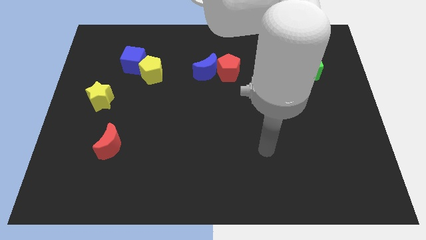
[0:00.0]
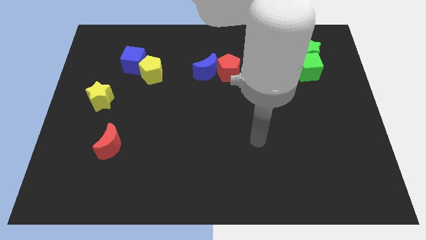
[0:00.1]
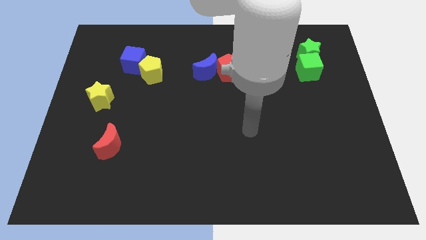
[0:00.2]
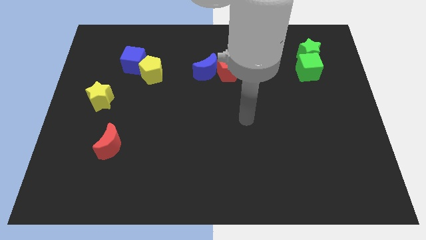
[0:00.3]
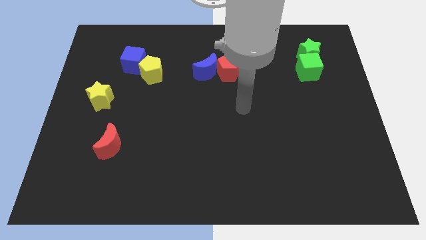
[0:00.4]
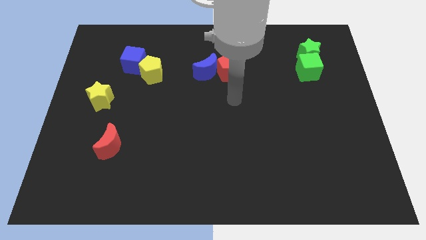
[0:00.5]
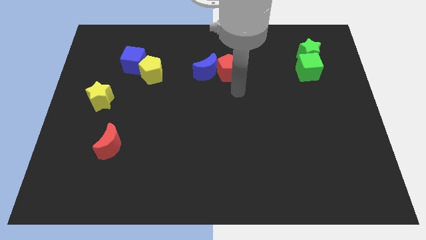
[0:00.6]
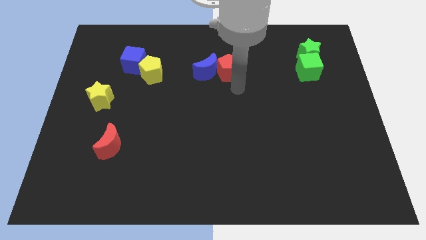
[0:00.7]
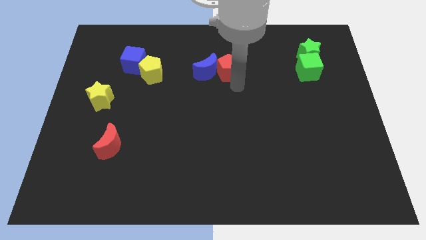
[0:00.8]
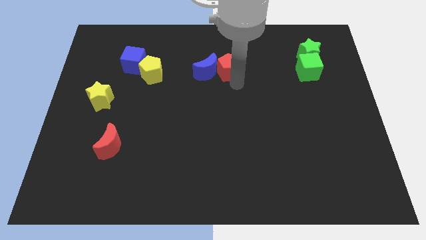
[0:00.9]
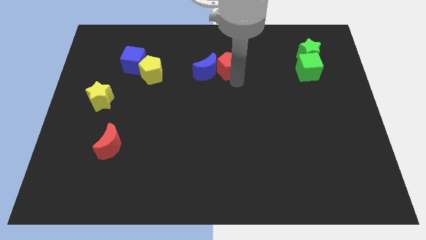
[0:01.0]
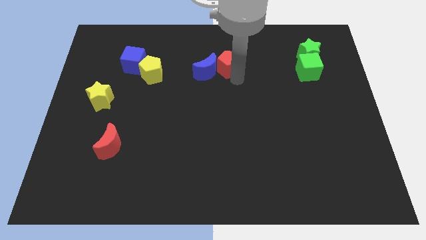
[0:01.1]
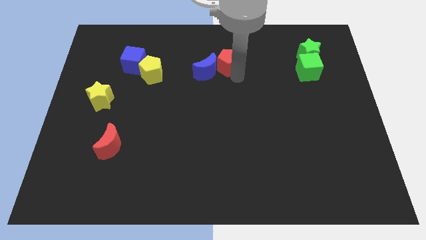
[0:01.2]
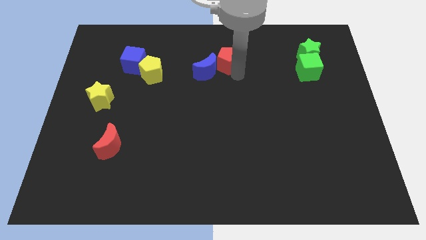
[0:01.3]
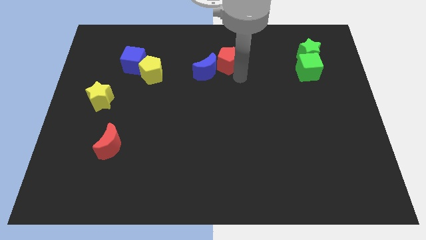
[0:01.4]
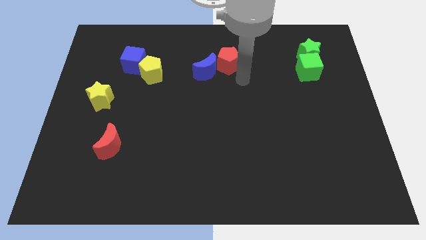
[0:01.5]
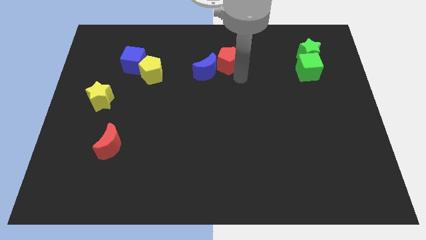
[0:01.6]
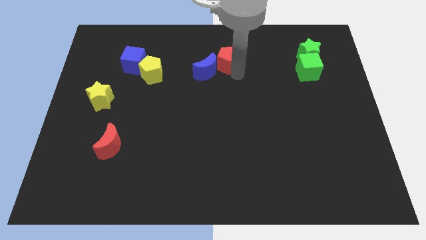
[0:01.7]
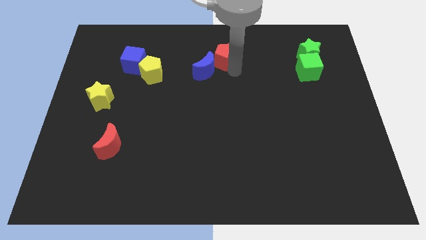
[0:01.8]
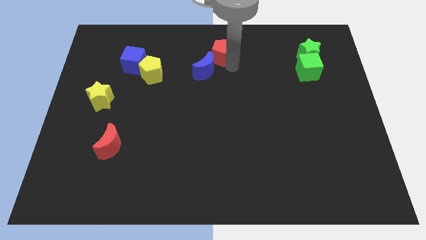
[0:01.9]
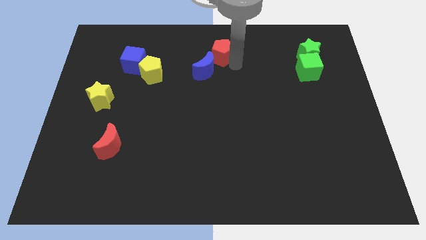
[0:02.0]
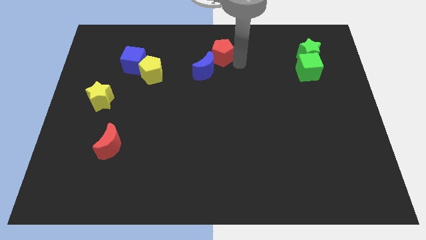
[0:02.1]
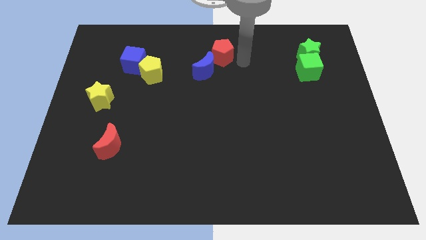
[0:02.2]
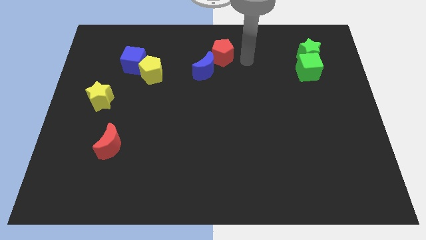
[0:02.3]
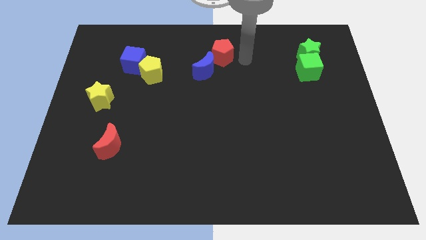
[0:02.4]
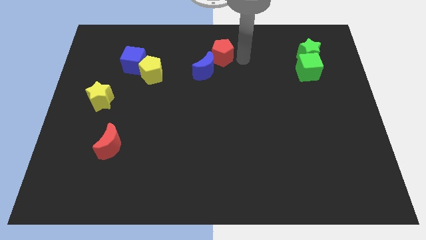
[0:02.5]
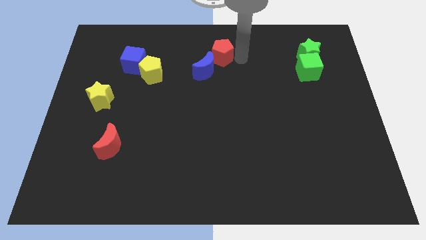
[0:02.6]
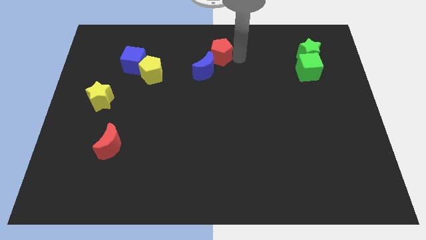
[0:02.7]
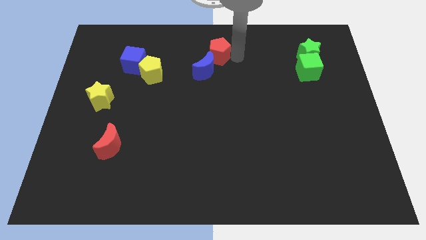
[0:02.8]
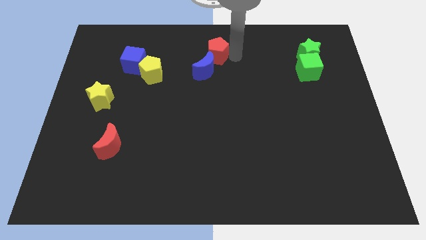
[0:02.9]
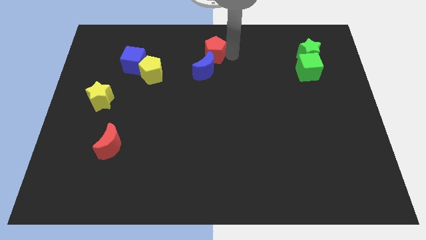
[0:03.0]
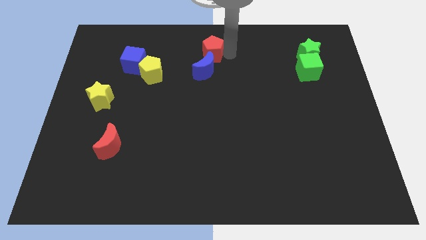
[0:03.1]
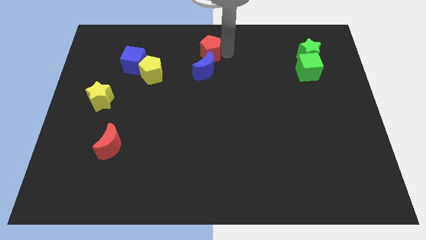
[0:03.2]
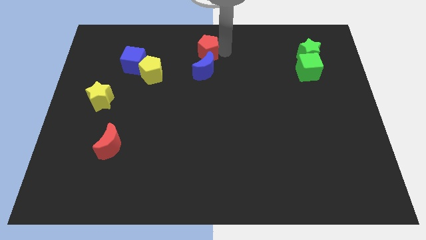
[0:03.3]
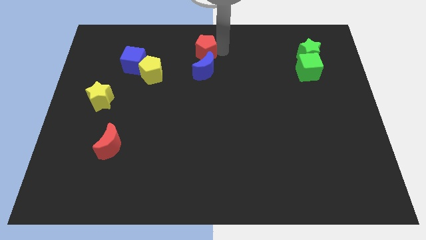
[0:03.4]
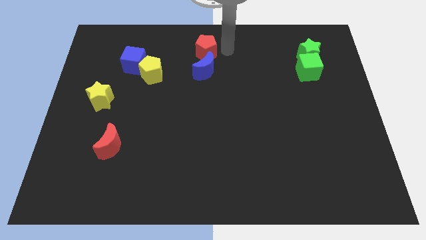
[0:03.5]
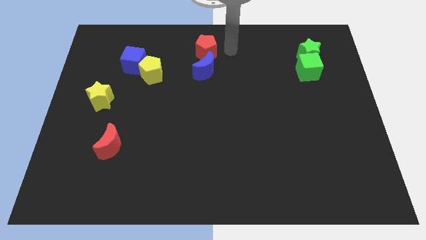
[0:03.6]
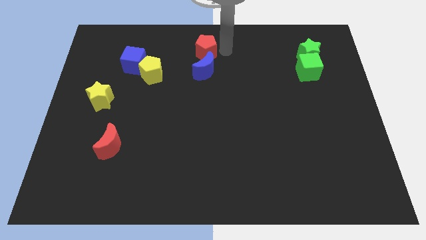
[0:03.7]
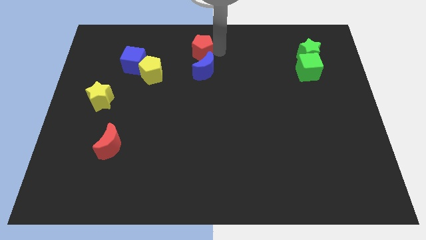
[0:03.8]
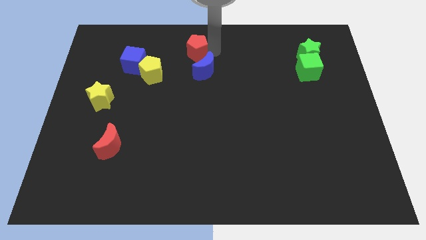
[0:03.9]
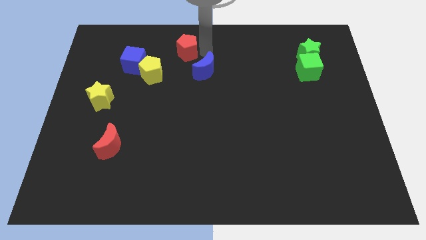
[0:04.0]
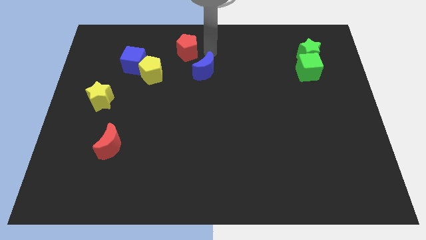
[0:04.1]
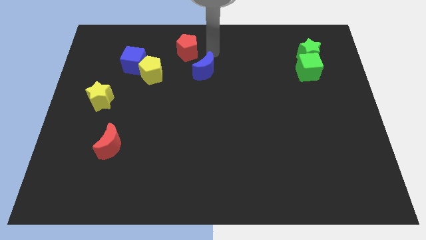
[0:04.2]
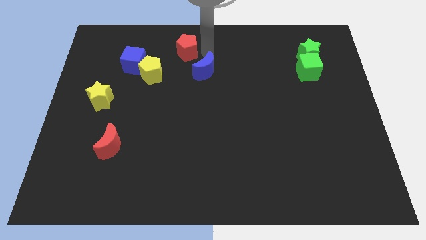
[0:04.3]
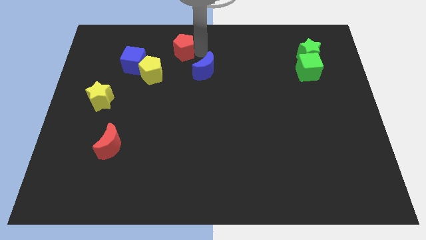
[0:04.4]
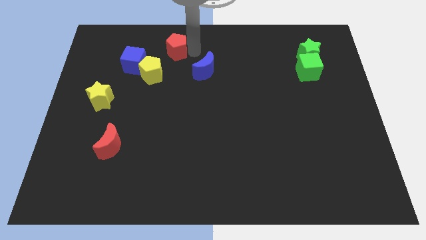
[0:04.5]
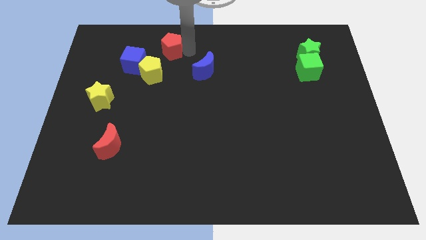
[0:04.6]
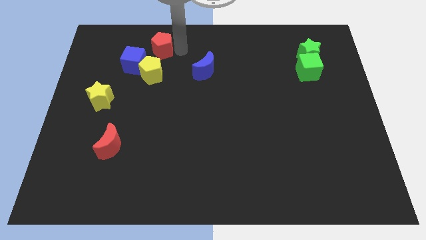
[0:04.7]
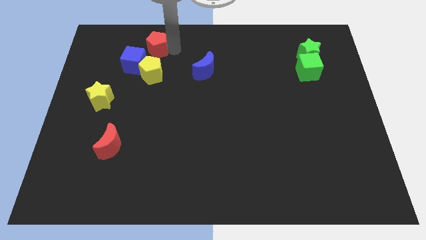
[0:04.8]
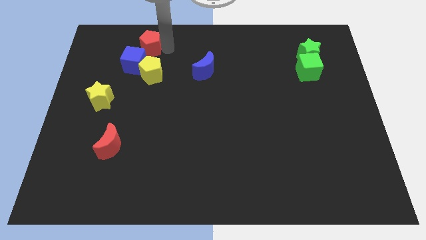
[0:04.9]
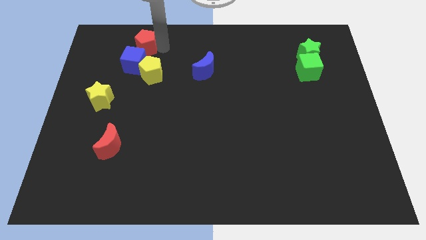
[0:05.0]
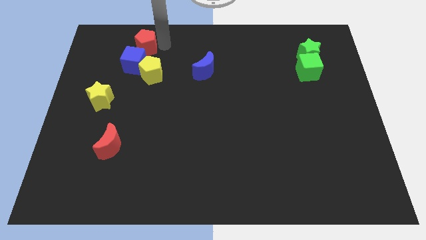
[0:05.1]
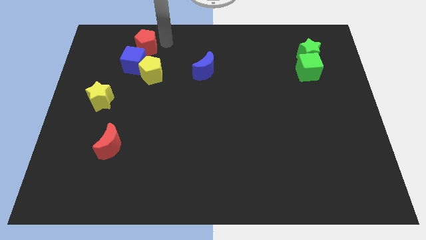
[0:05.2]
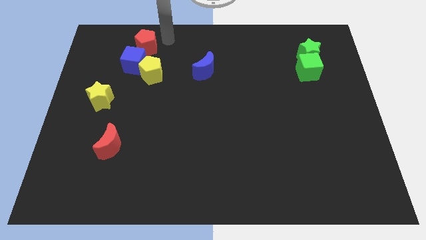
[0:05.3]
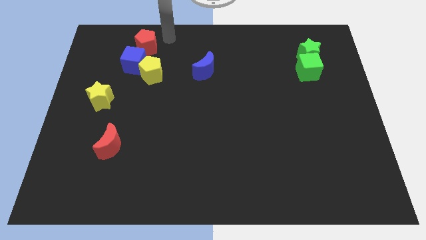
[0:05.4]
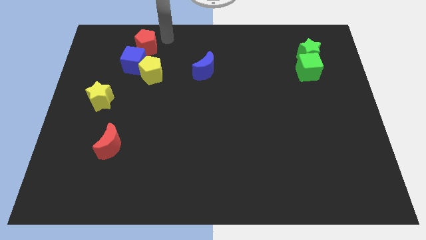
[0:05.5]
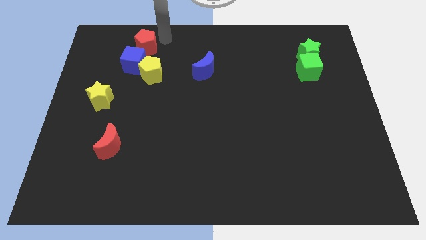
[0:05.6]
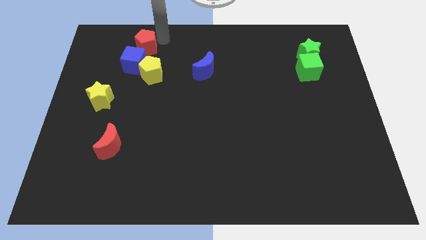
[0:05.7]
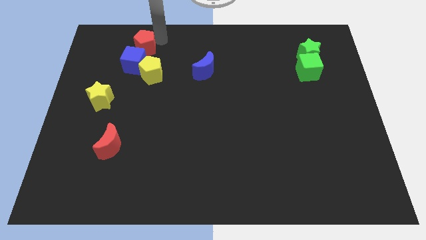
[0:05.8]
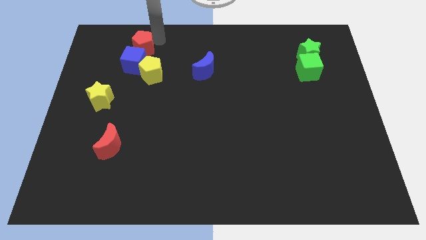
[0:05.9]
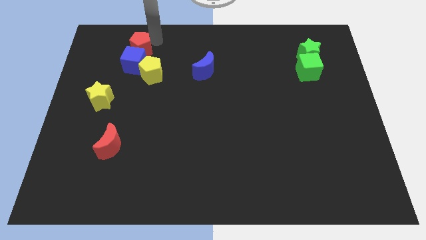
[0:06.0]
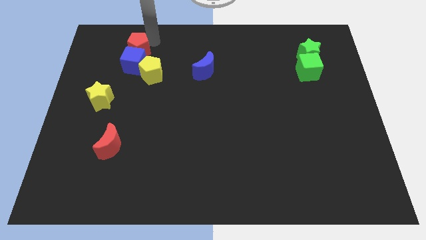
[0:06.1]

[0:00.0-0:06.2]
push the red pentagon left

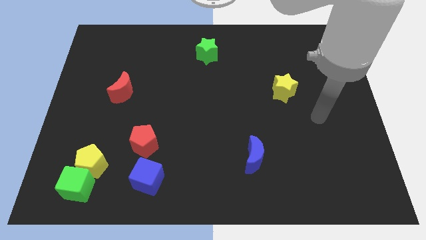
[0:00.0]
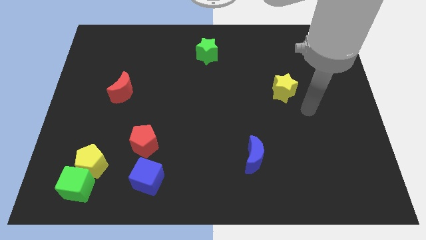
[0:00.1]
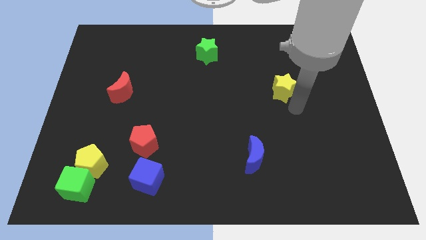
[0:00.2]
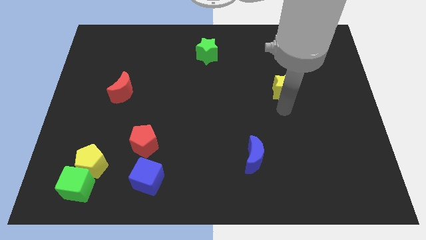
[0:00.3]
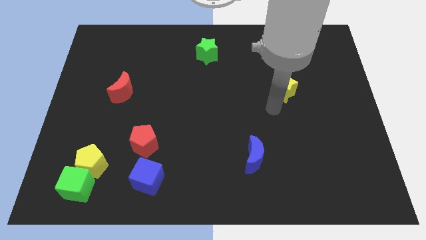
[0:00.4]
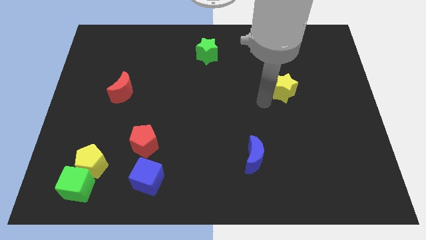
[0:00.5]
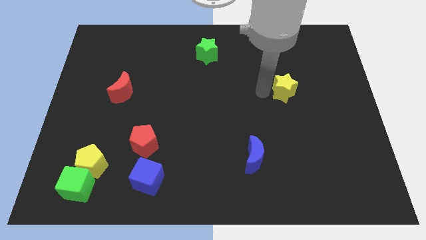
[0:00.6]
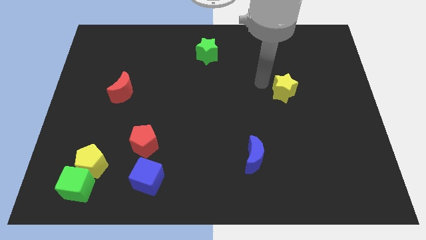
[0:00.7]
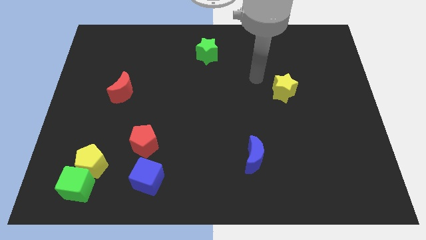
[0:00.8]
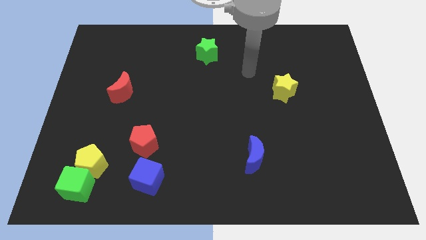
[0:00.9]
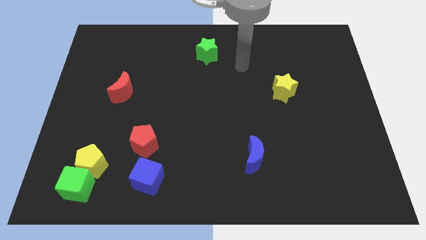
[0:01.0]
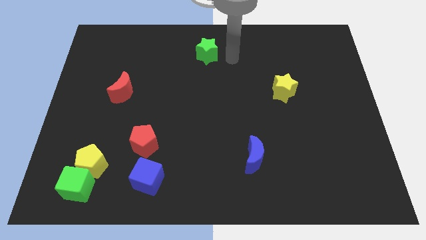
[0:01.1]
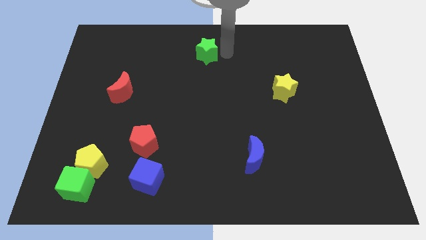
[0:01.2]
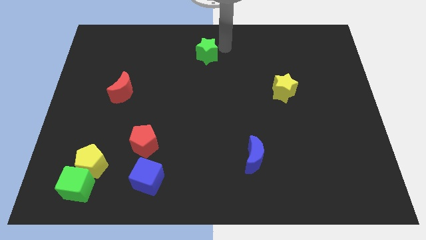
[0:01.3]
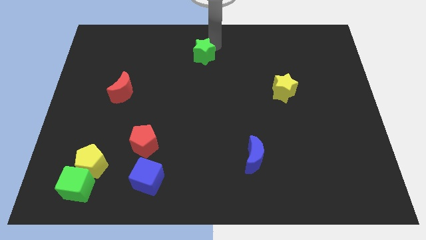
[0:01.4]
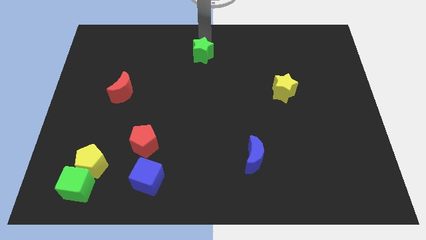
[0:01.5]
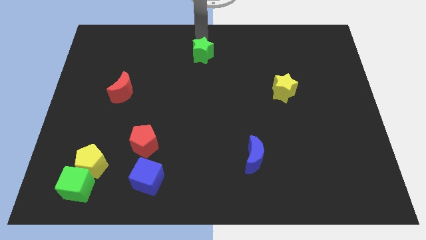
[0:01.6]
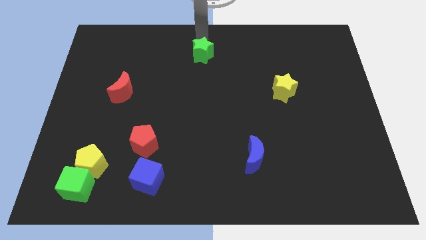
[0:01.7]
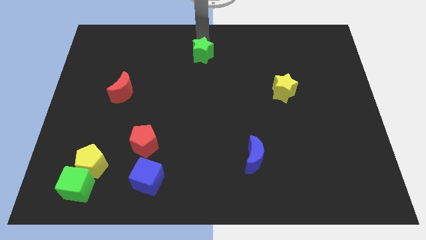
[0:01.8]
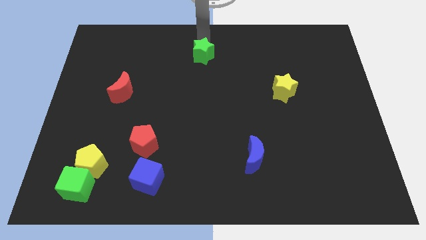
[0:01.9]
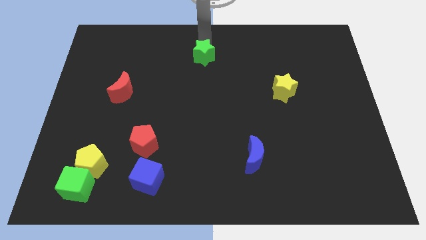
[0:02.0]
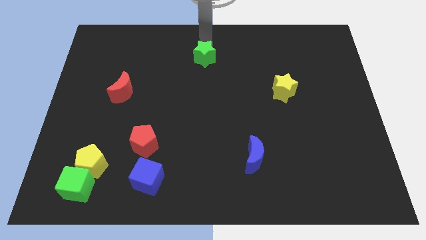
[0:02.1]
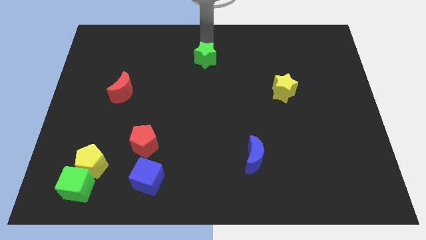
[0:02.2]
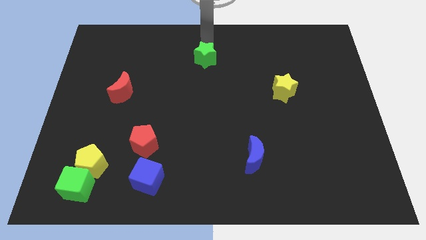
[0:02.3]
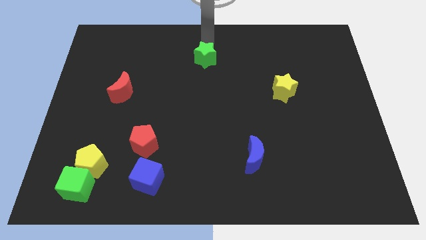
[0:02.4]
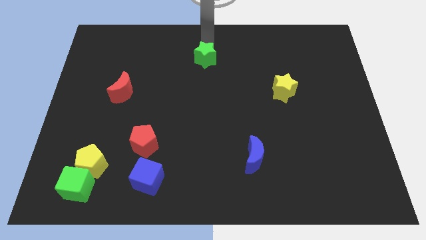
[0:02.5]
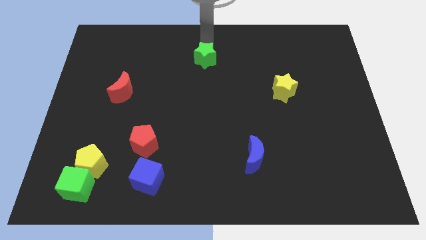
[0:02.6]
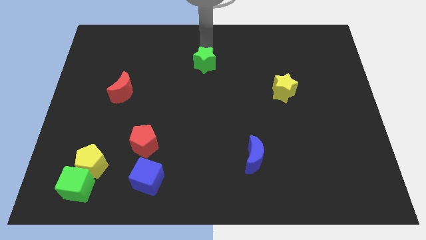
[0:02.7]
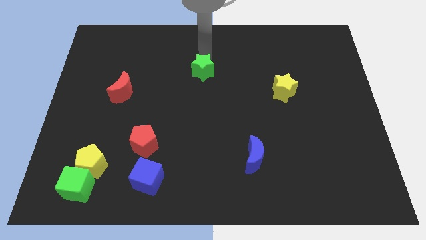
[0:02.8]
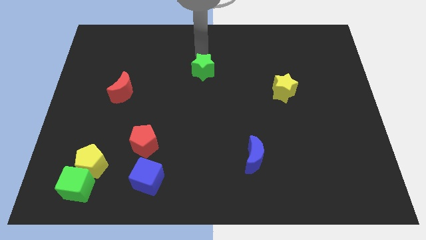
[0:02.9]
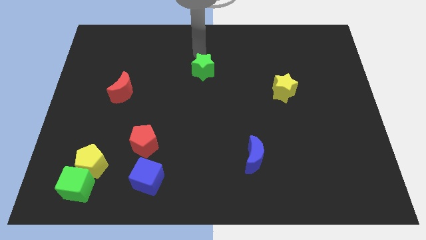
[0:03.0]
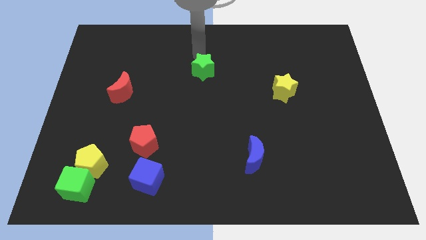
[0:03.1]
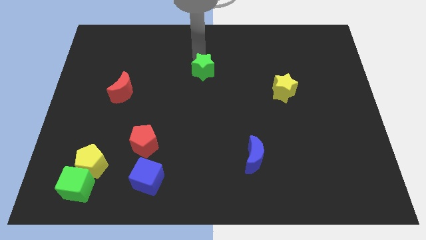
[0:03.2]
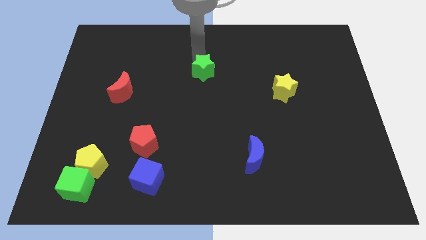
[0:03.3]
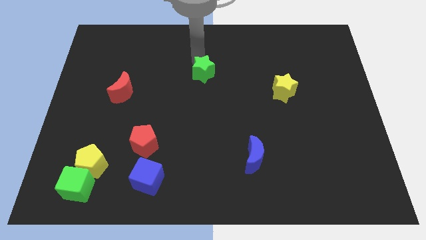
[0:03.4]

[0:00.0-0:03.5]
slightly slide the green star down
